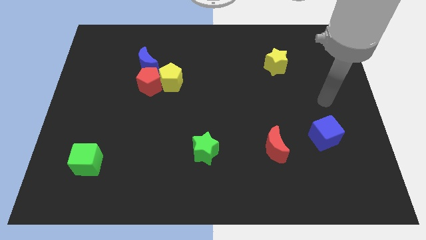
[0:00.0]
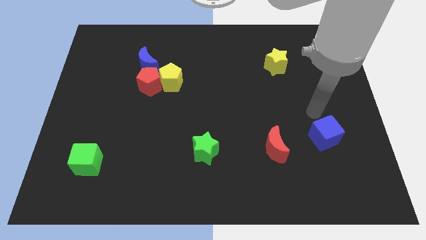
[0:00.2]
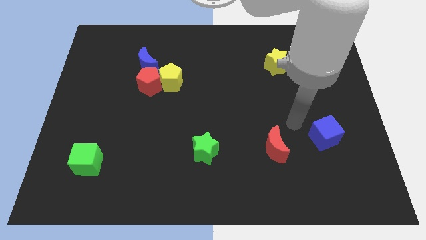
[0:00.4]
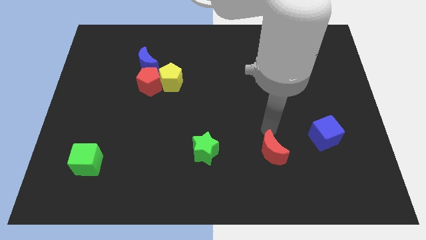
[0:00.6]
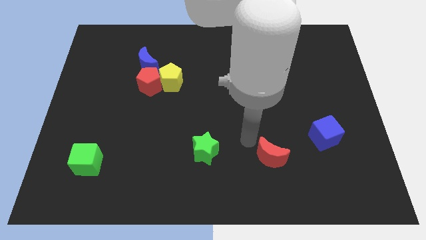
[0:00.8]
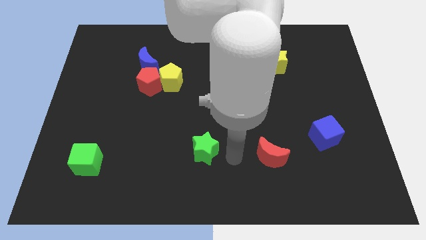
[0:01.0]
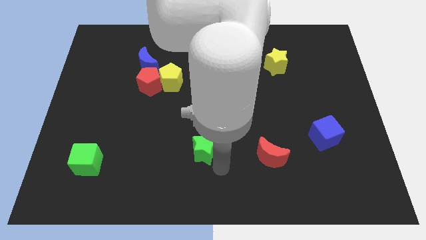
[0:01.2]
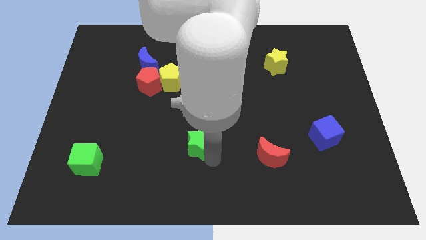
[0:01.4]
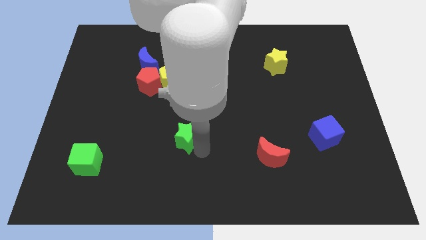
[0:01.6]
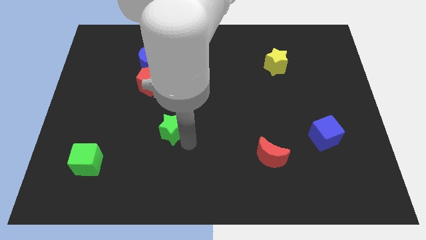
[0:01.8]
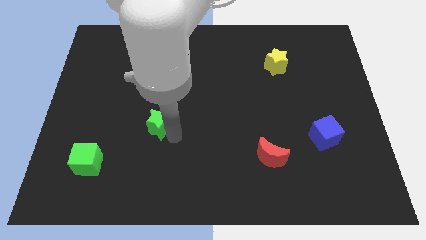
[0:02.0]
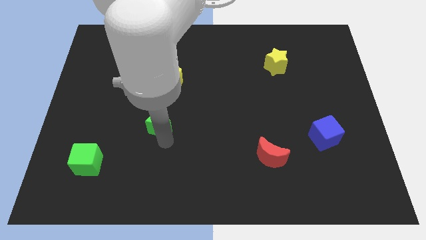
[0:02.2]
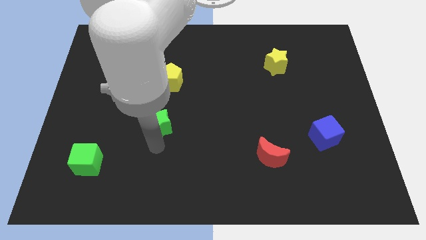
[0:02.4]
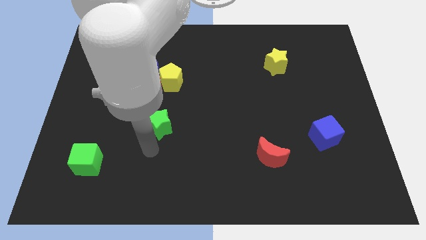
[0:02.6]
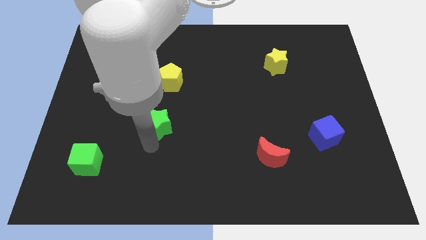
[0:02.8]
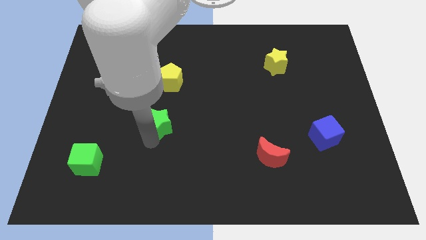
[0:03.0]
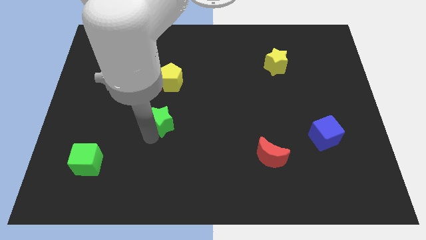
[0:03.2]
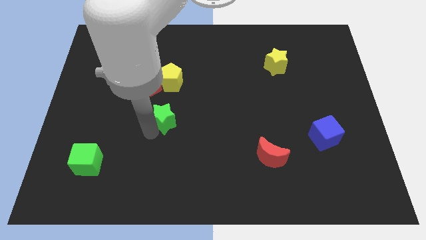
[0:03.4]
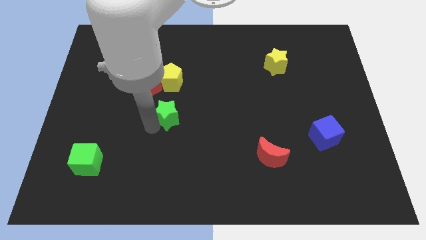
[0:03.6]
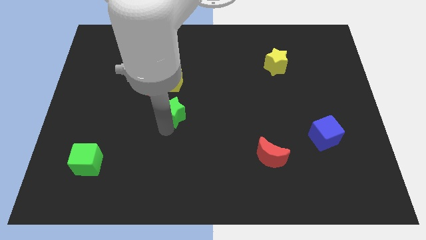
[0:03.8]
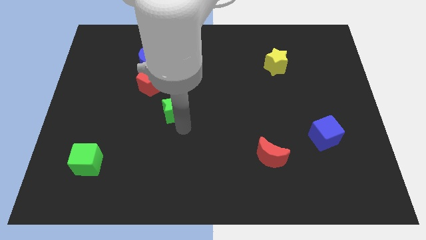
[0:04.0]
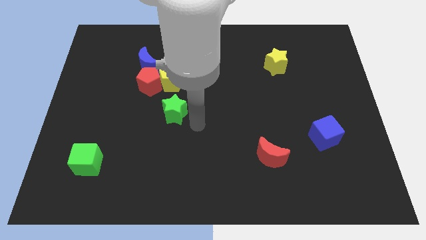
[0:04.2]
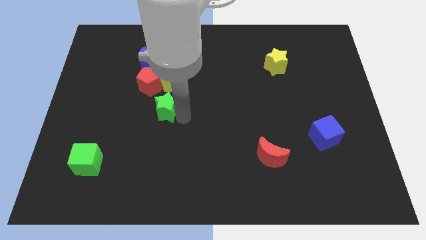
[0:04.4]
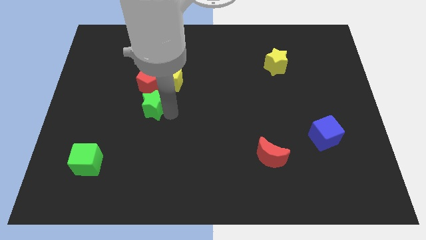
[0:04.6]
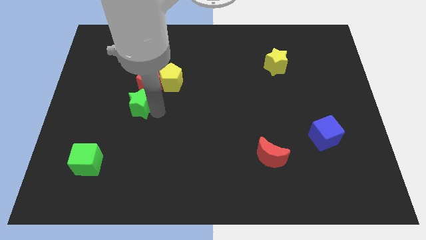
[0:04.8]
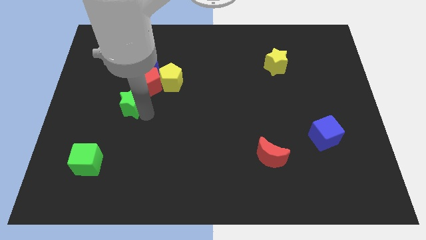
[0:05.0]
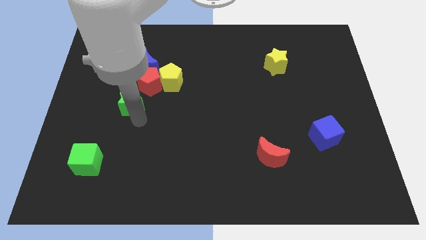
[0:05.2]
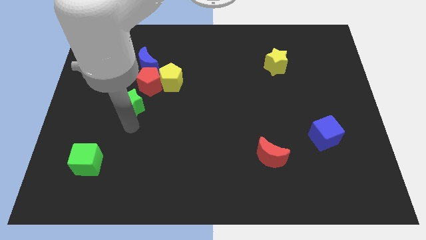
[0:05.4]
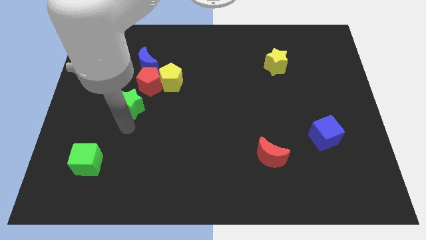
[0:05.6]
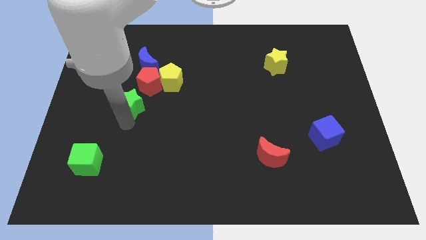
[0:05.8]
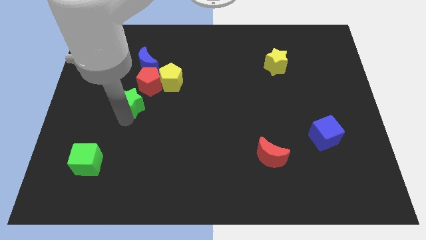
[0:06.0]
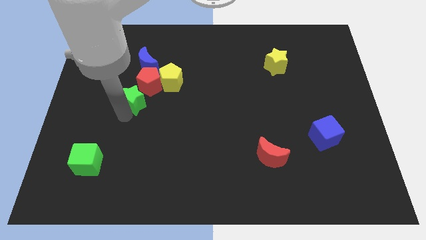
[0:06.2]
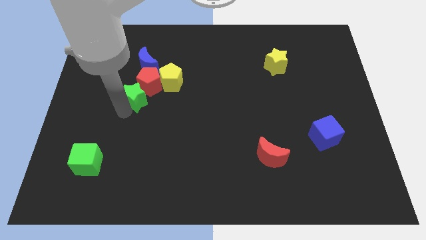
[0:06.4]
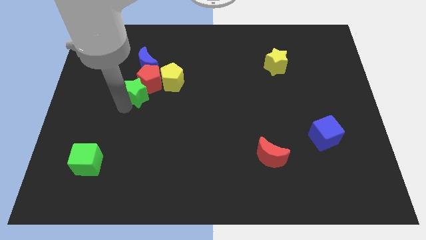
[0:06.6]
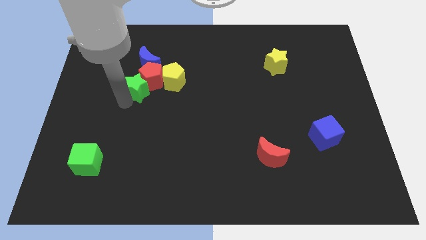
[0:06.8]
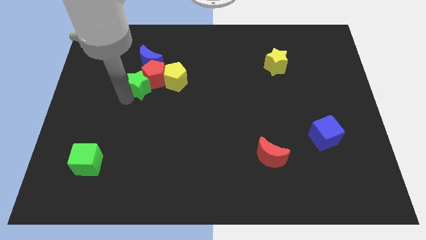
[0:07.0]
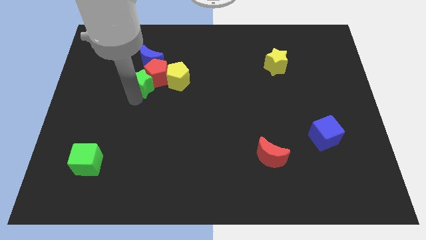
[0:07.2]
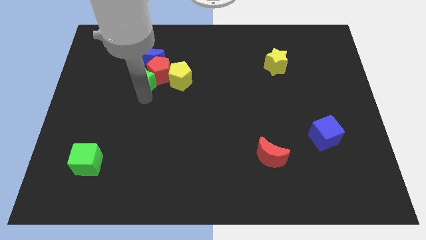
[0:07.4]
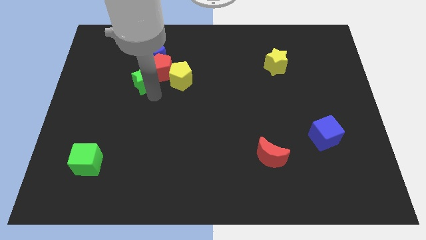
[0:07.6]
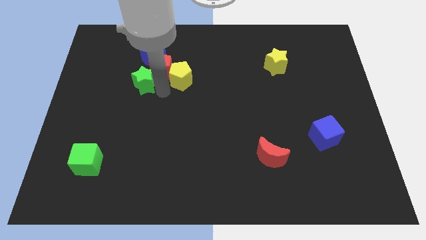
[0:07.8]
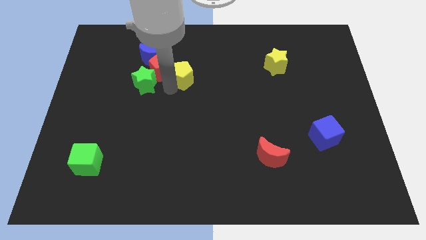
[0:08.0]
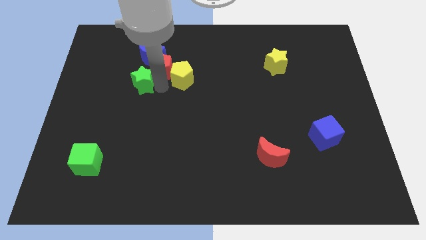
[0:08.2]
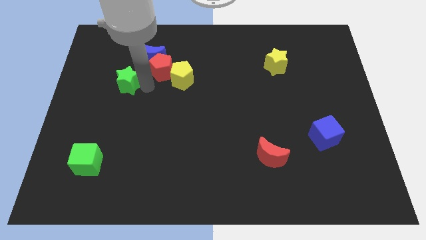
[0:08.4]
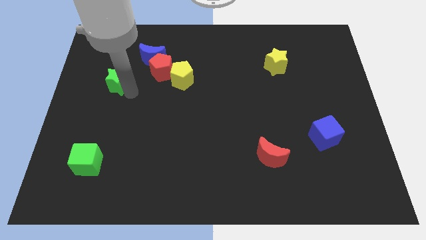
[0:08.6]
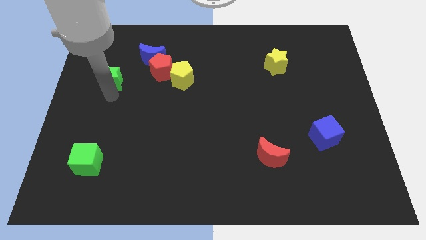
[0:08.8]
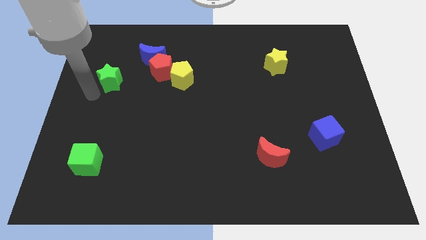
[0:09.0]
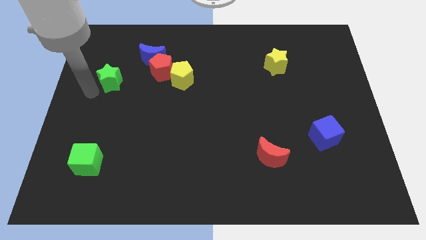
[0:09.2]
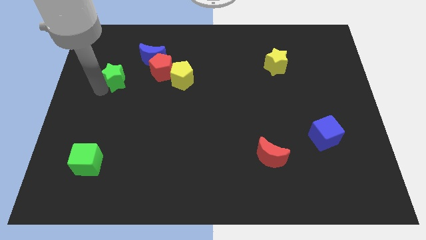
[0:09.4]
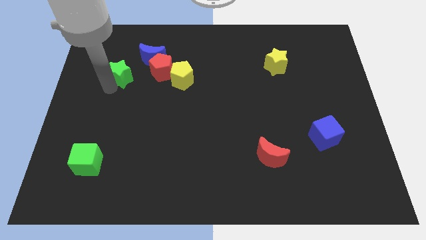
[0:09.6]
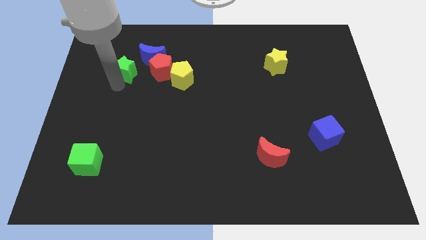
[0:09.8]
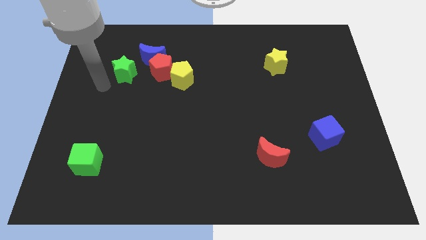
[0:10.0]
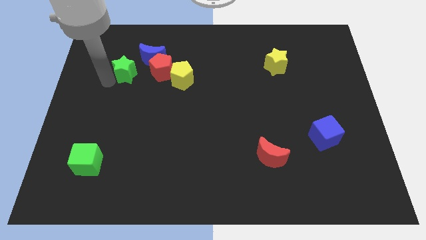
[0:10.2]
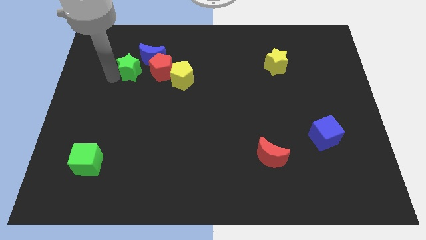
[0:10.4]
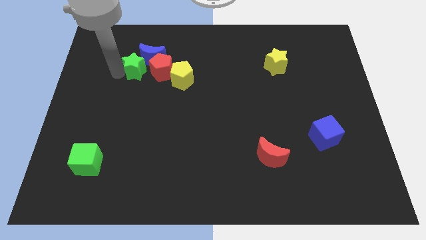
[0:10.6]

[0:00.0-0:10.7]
push the green star next to the blue moon
